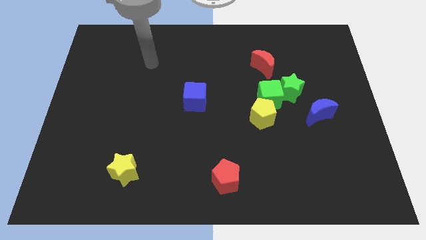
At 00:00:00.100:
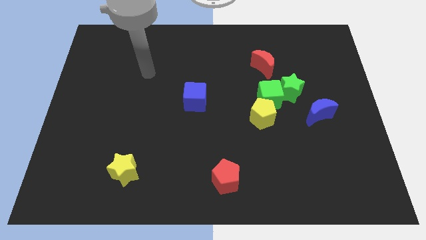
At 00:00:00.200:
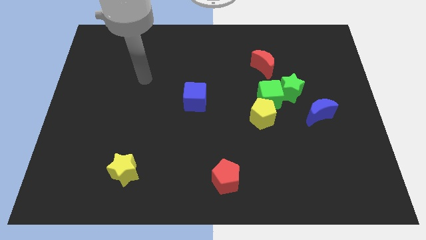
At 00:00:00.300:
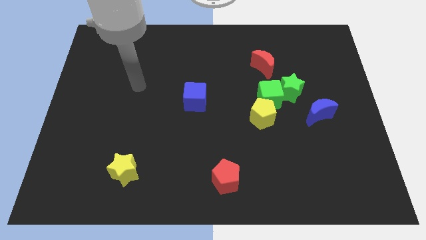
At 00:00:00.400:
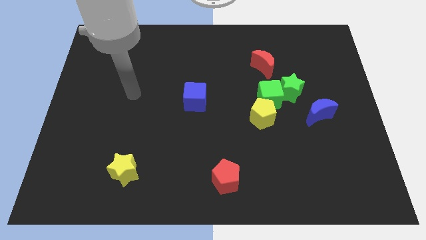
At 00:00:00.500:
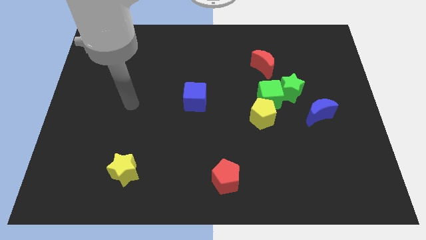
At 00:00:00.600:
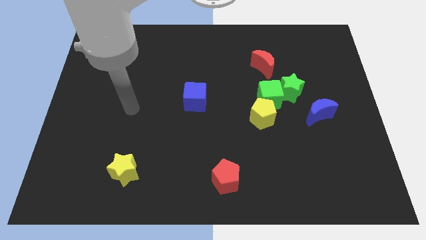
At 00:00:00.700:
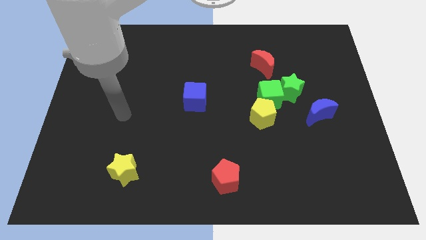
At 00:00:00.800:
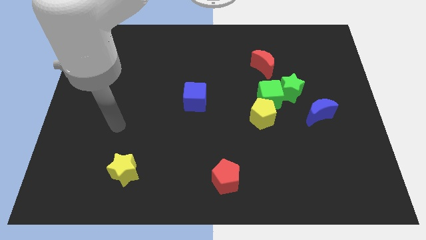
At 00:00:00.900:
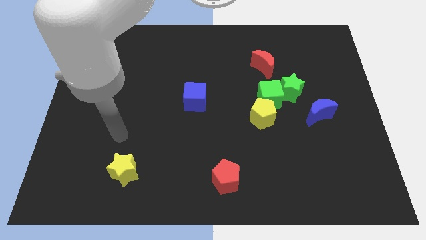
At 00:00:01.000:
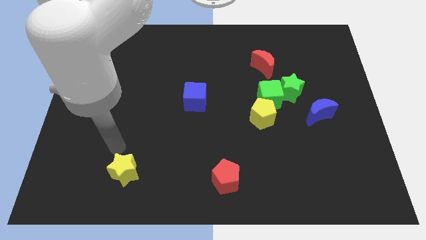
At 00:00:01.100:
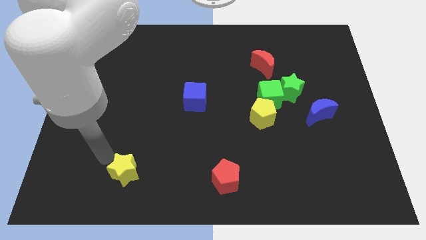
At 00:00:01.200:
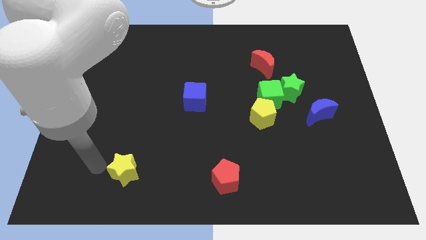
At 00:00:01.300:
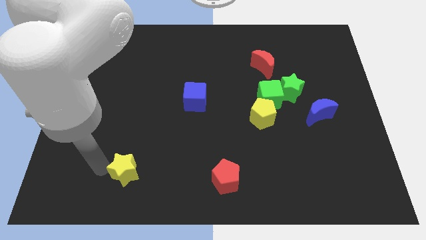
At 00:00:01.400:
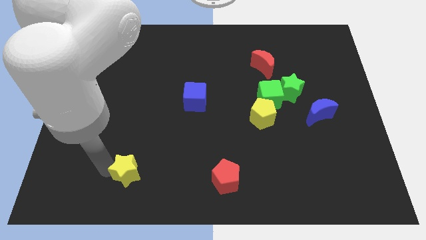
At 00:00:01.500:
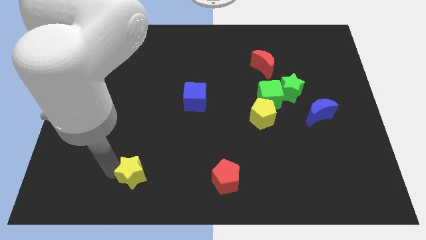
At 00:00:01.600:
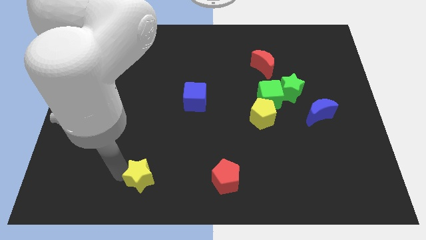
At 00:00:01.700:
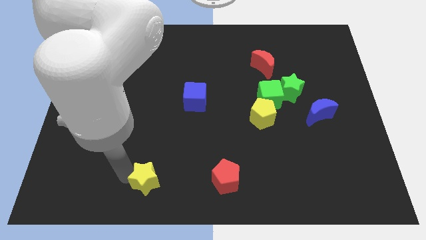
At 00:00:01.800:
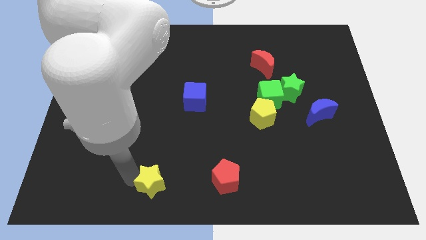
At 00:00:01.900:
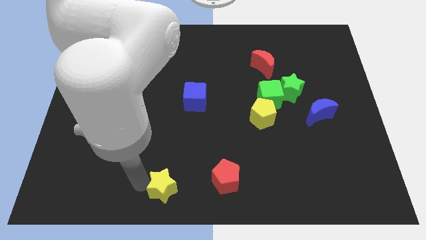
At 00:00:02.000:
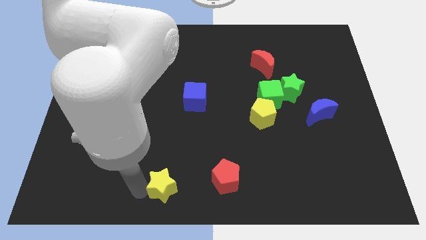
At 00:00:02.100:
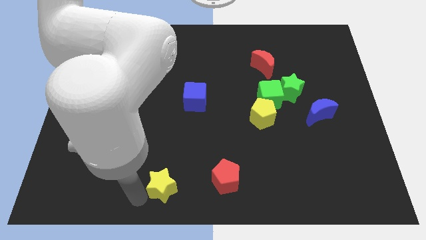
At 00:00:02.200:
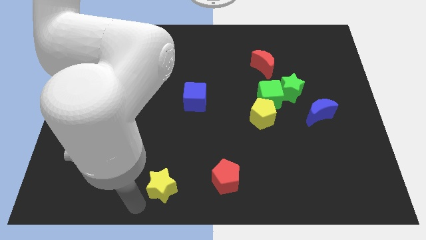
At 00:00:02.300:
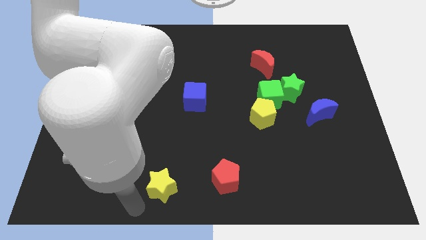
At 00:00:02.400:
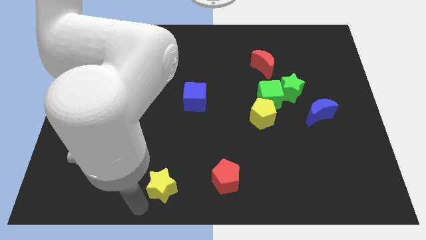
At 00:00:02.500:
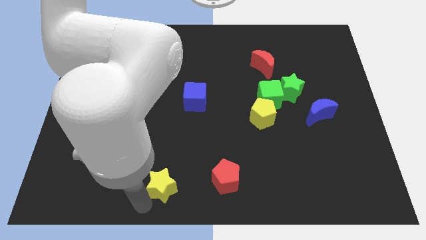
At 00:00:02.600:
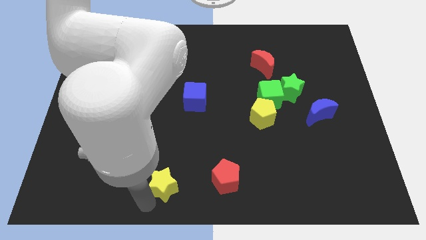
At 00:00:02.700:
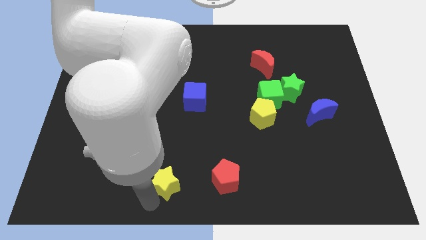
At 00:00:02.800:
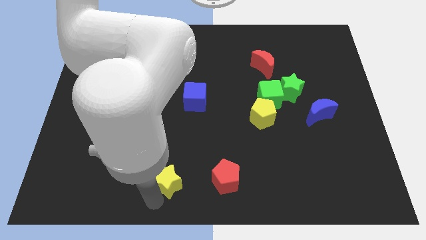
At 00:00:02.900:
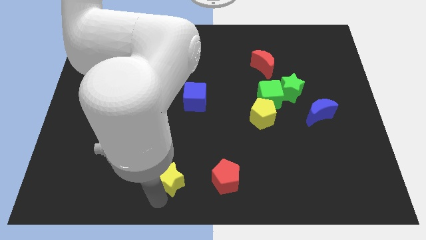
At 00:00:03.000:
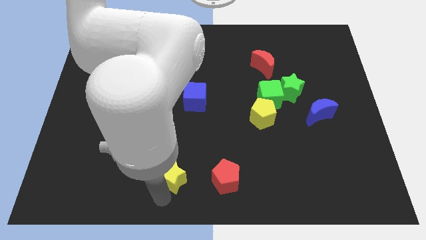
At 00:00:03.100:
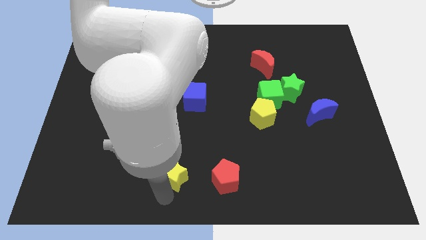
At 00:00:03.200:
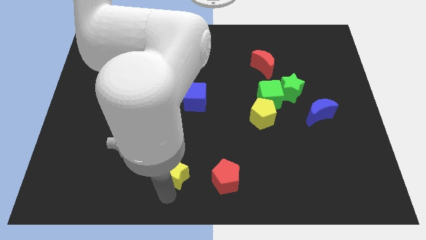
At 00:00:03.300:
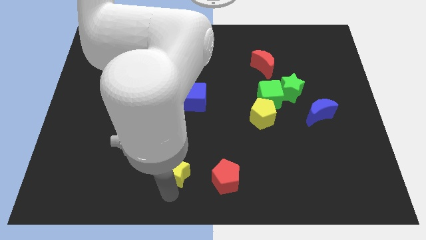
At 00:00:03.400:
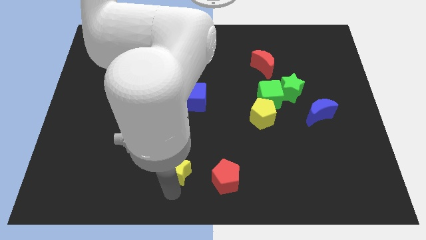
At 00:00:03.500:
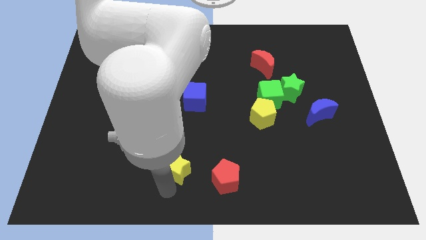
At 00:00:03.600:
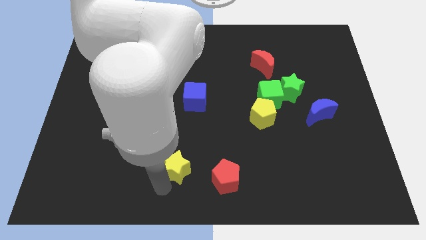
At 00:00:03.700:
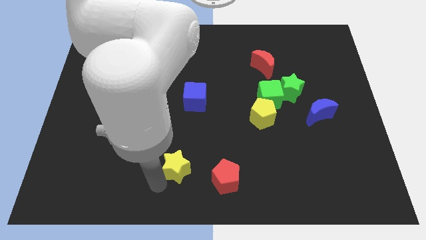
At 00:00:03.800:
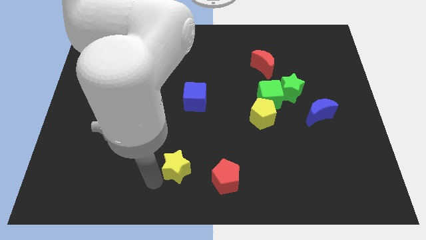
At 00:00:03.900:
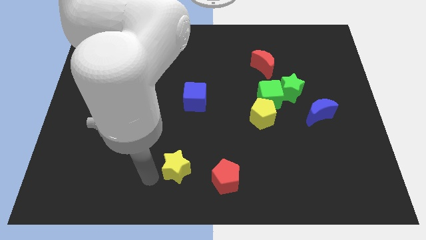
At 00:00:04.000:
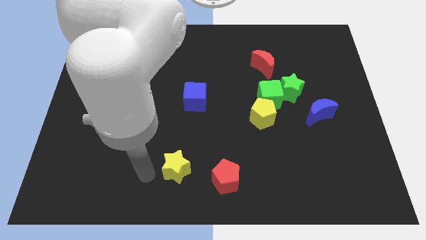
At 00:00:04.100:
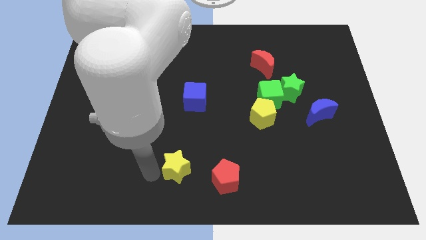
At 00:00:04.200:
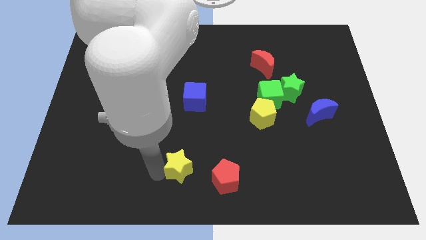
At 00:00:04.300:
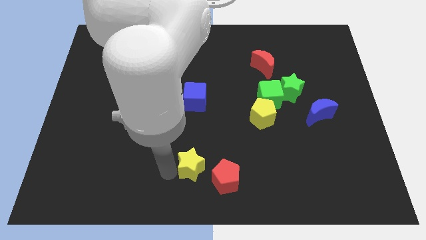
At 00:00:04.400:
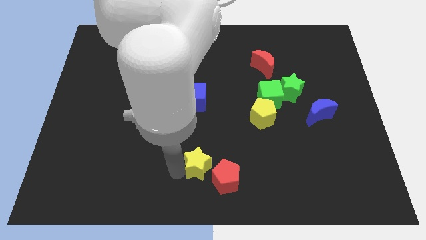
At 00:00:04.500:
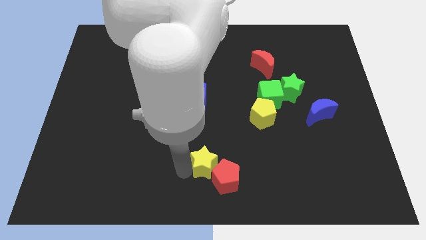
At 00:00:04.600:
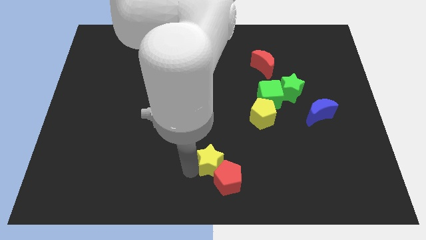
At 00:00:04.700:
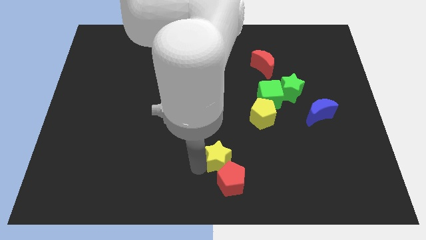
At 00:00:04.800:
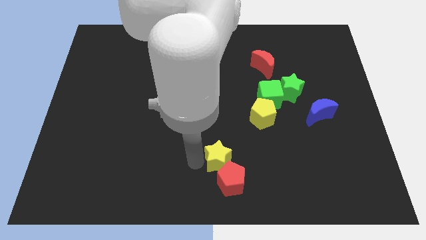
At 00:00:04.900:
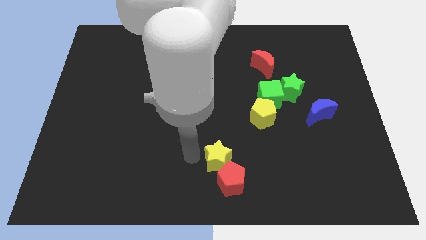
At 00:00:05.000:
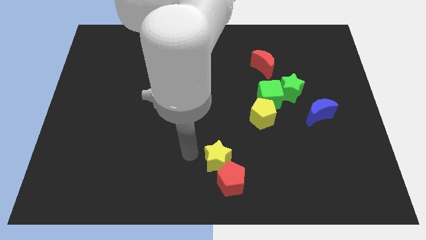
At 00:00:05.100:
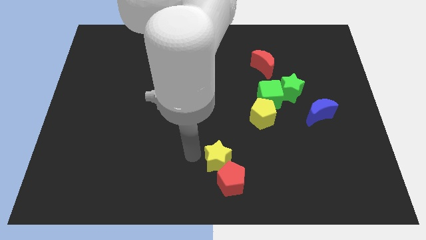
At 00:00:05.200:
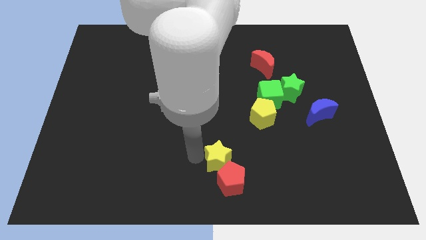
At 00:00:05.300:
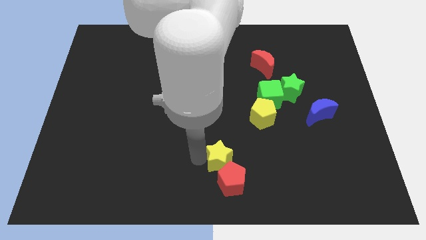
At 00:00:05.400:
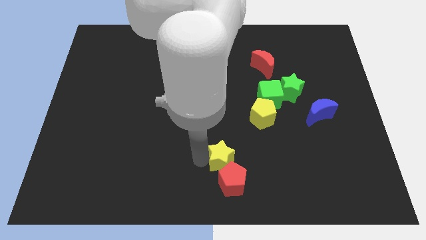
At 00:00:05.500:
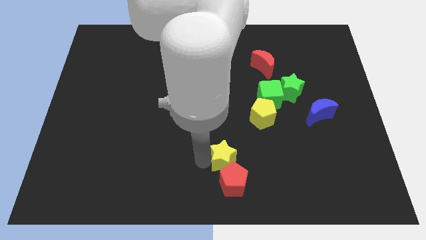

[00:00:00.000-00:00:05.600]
move the yellow star to the right

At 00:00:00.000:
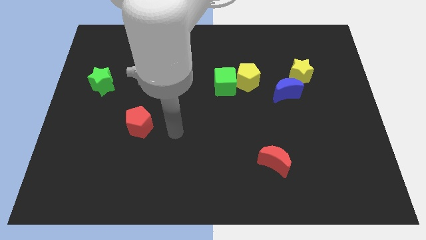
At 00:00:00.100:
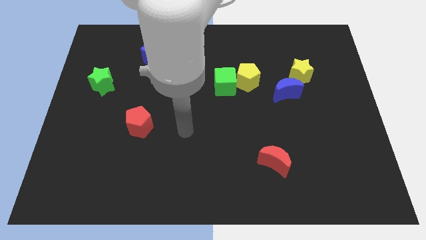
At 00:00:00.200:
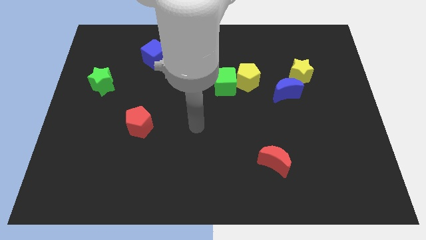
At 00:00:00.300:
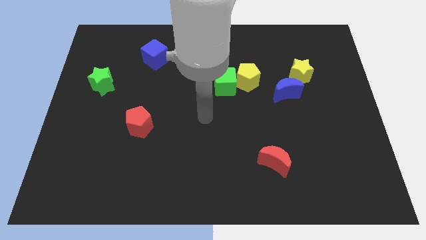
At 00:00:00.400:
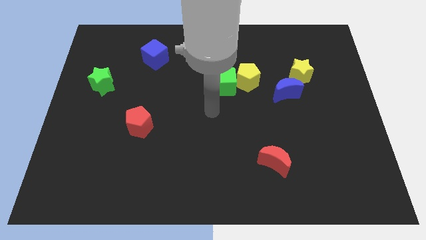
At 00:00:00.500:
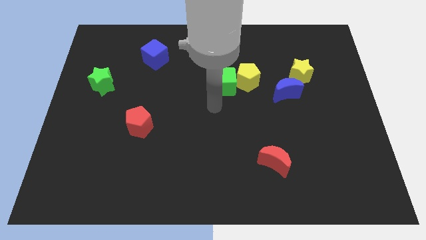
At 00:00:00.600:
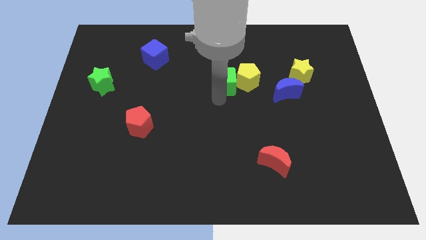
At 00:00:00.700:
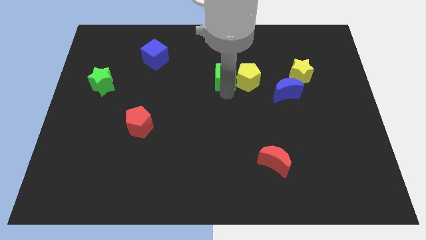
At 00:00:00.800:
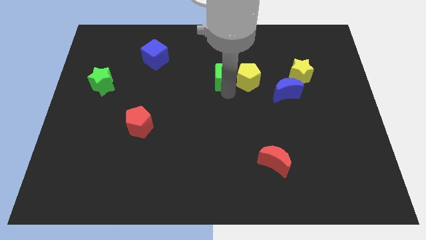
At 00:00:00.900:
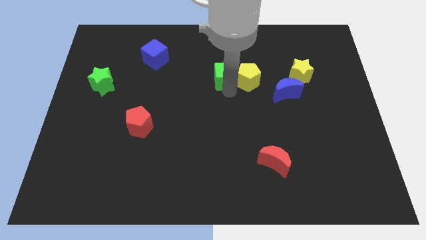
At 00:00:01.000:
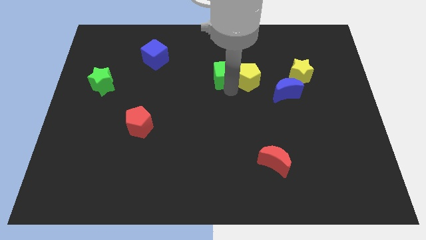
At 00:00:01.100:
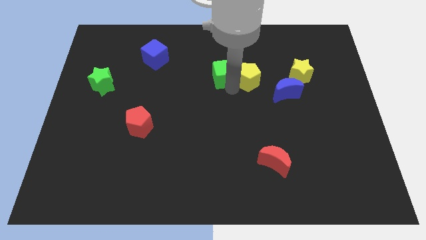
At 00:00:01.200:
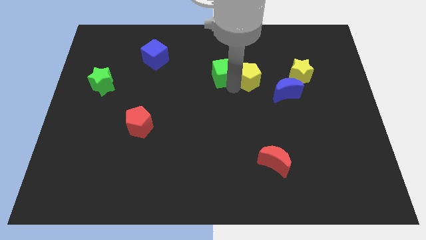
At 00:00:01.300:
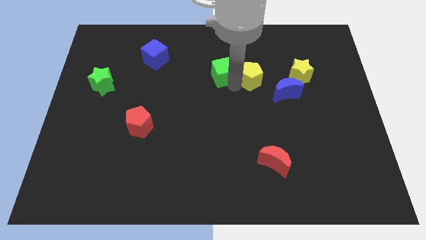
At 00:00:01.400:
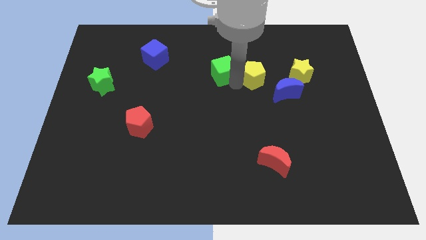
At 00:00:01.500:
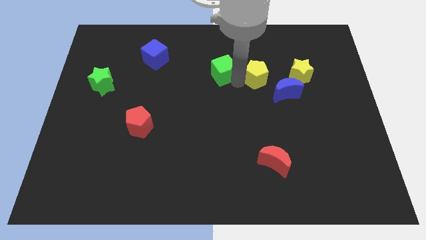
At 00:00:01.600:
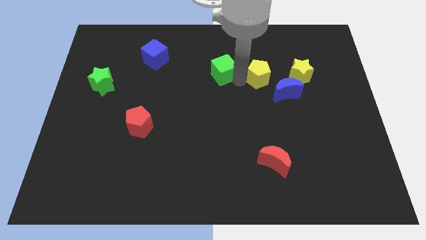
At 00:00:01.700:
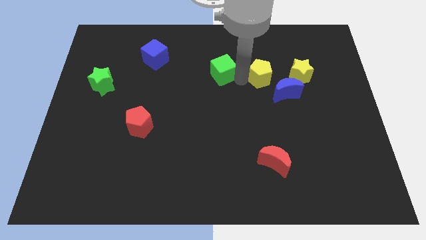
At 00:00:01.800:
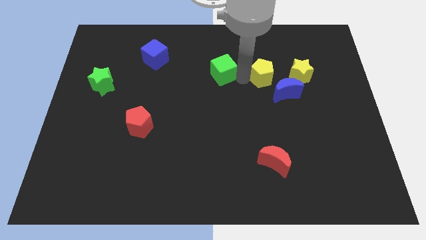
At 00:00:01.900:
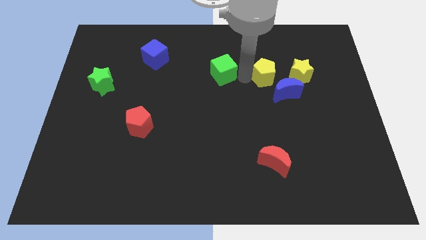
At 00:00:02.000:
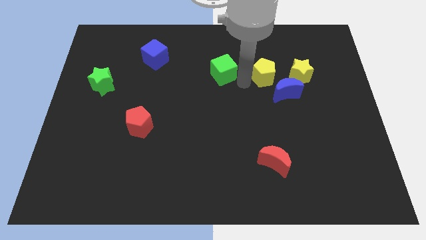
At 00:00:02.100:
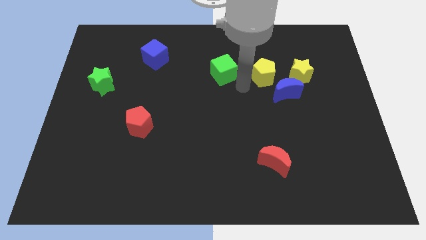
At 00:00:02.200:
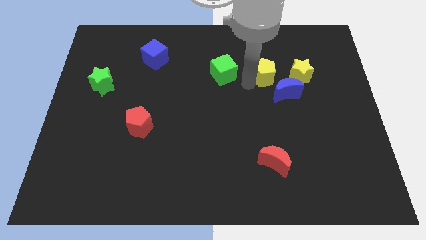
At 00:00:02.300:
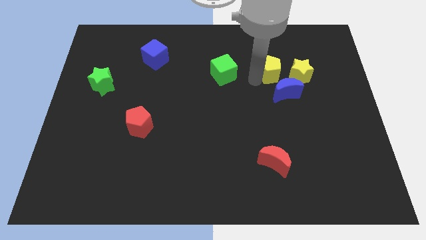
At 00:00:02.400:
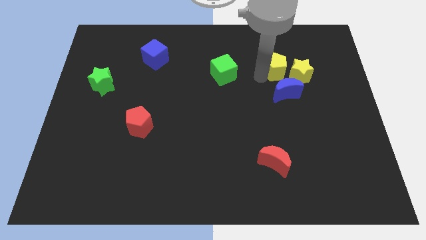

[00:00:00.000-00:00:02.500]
slightly move the yellow pentagon right
